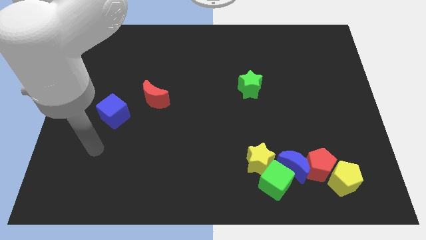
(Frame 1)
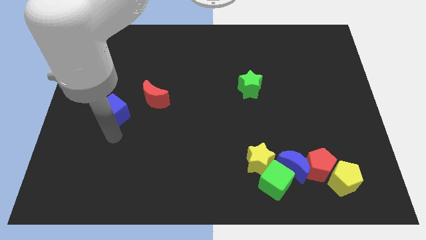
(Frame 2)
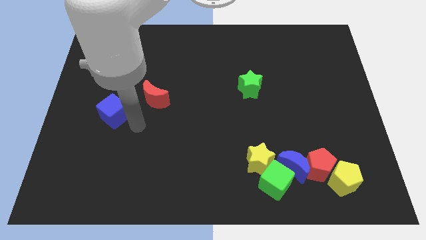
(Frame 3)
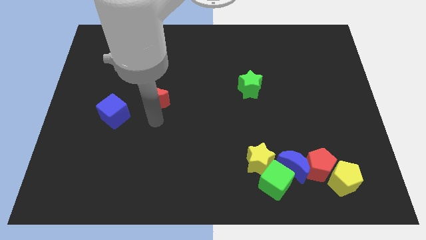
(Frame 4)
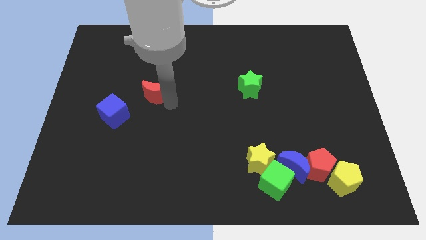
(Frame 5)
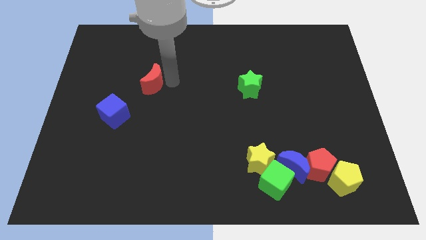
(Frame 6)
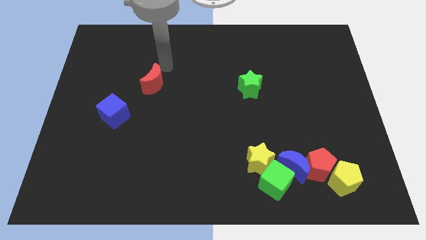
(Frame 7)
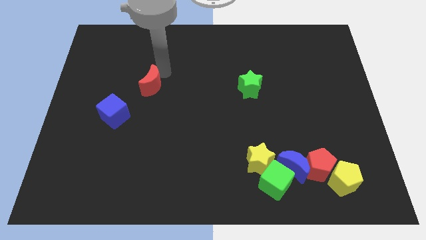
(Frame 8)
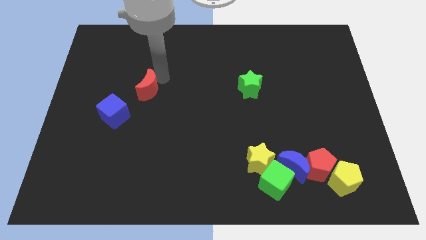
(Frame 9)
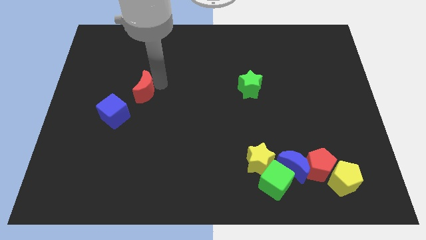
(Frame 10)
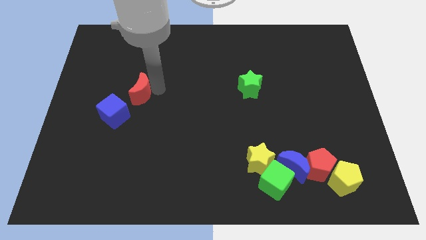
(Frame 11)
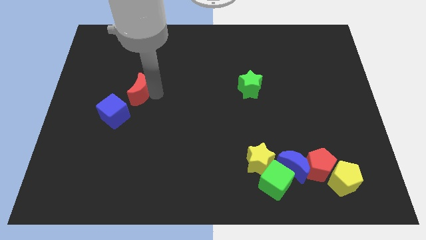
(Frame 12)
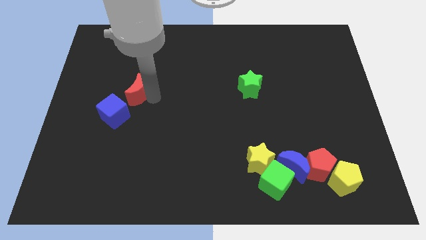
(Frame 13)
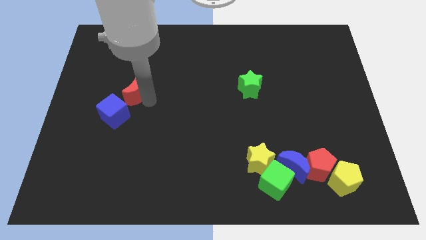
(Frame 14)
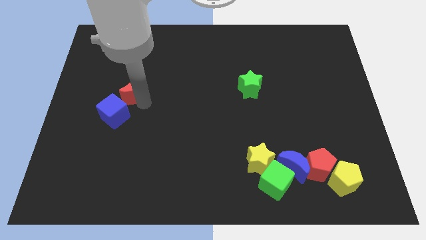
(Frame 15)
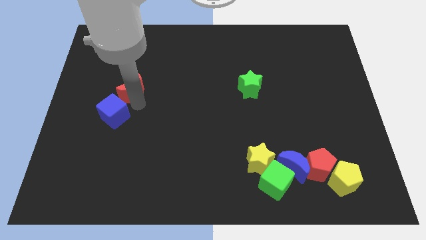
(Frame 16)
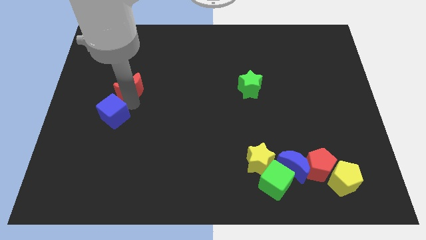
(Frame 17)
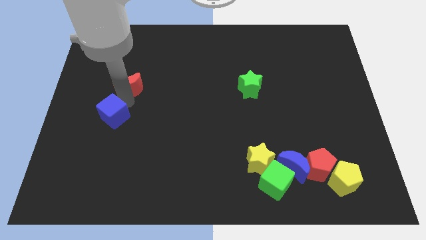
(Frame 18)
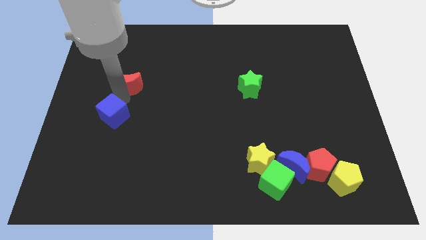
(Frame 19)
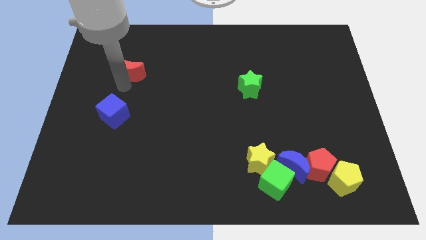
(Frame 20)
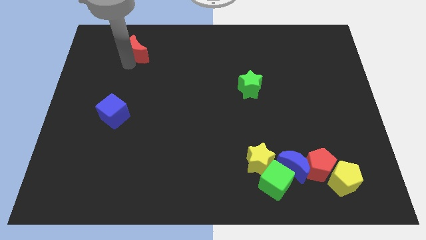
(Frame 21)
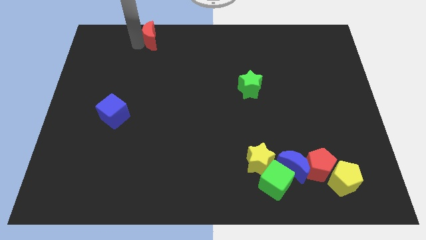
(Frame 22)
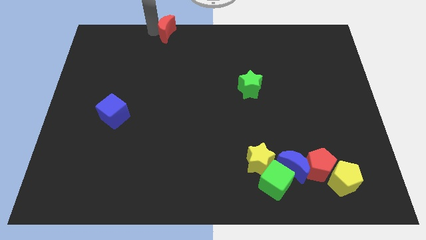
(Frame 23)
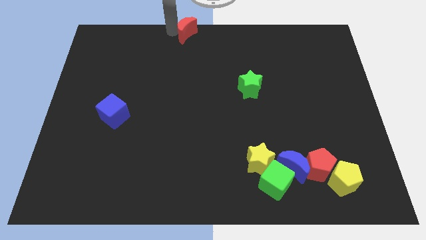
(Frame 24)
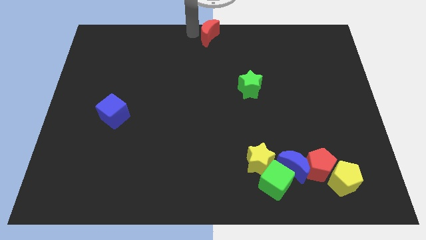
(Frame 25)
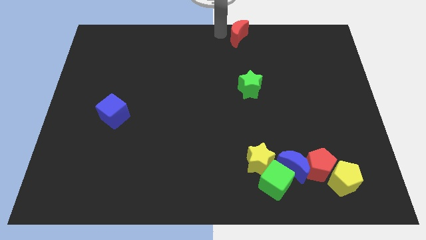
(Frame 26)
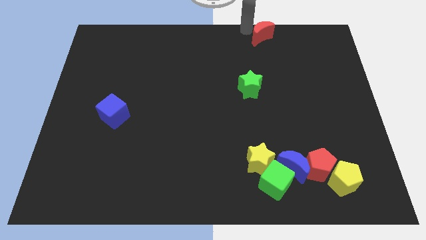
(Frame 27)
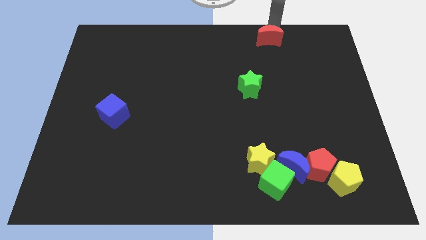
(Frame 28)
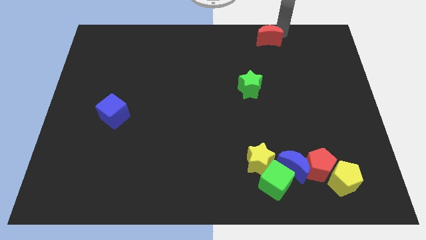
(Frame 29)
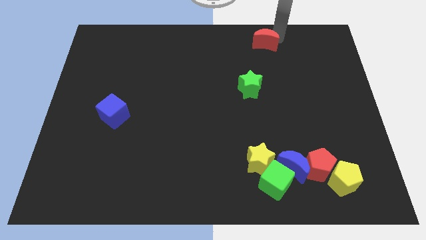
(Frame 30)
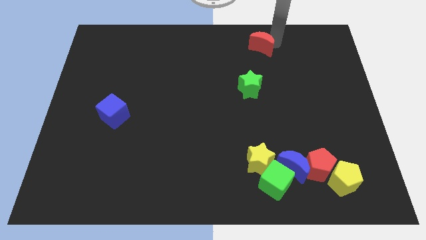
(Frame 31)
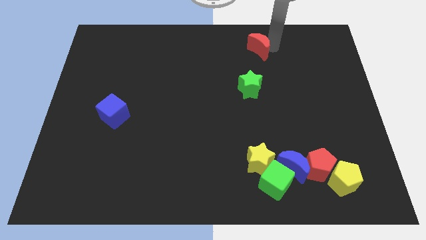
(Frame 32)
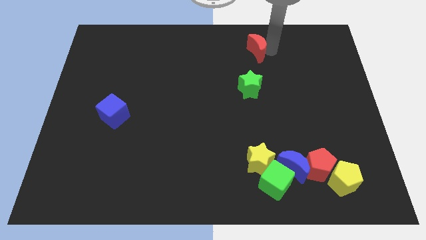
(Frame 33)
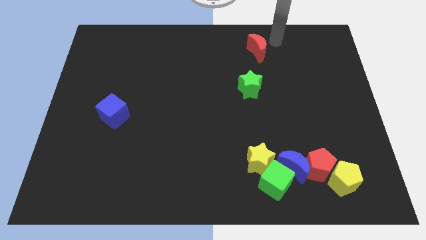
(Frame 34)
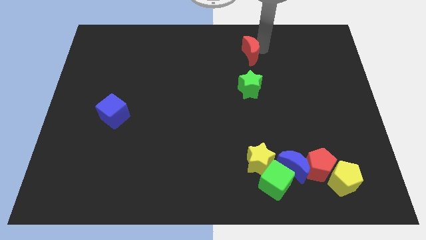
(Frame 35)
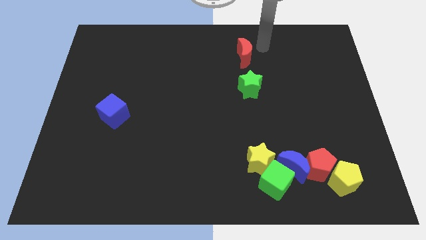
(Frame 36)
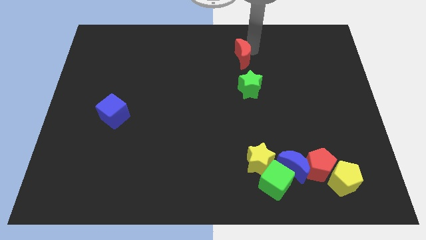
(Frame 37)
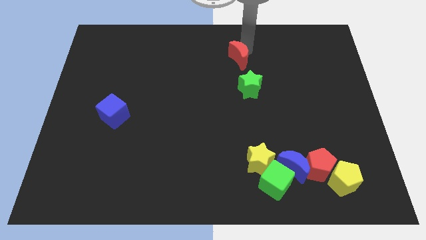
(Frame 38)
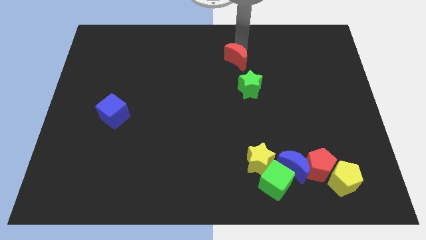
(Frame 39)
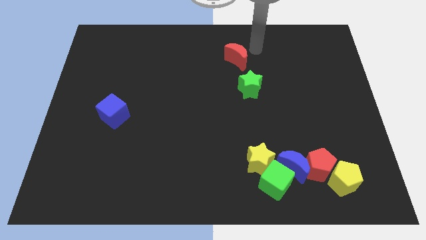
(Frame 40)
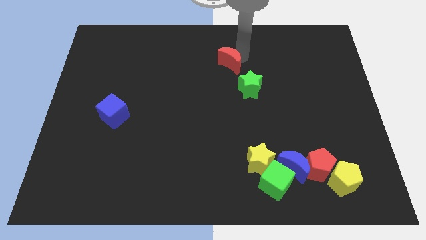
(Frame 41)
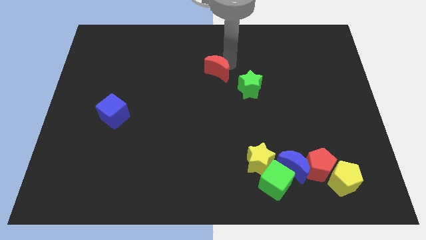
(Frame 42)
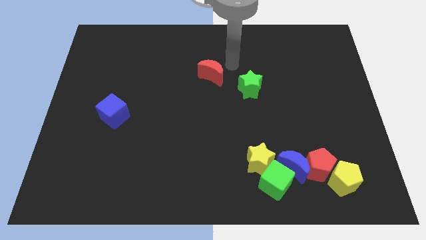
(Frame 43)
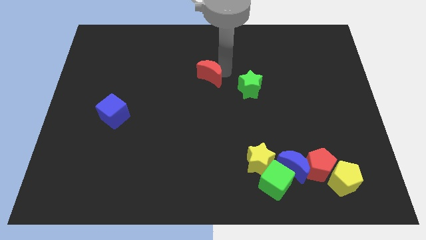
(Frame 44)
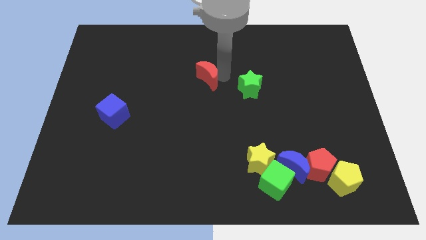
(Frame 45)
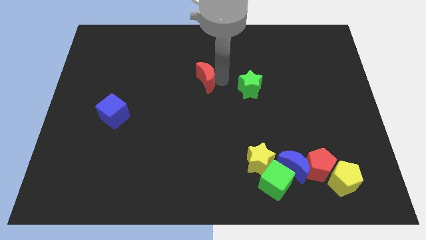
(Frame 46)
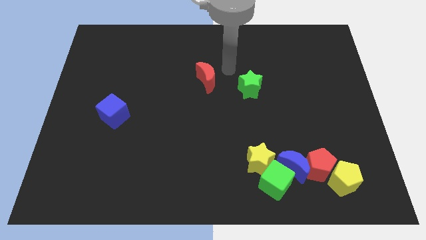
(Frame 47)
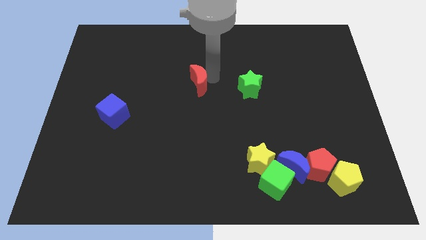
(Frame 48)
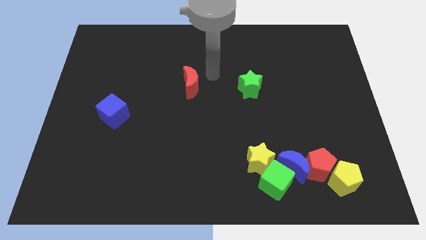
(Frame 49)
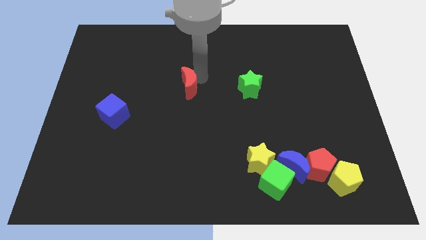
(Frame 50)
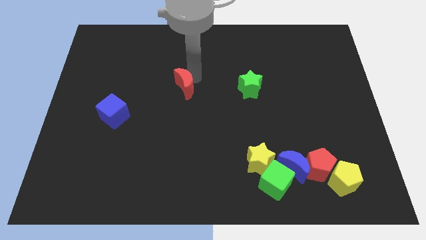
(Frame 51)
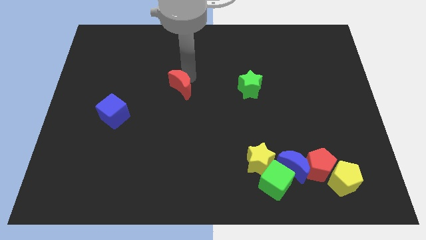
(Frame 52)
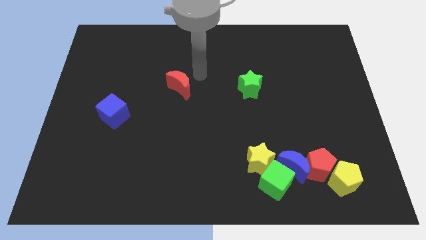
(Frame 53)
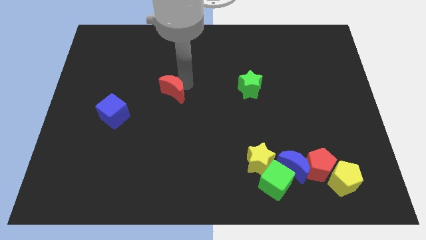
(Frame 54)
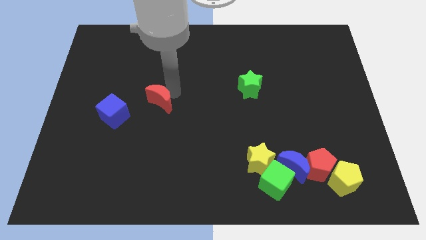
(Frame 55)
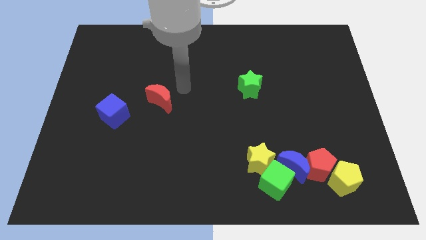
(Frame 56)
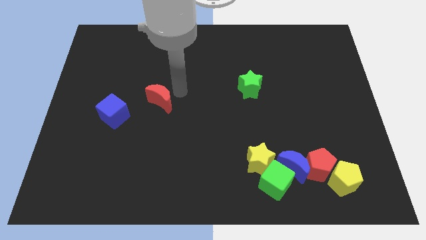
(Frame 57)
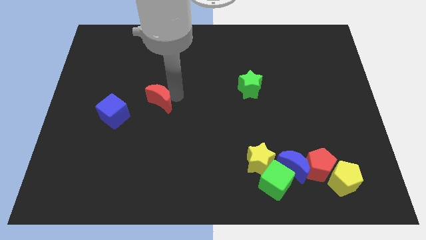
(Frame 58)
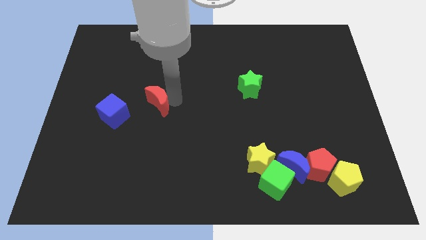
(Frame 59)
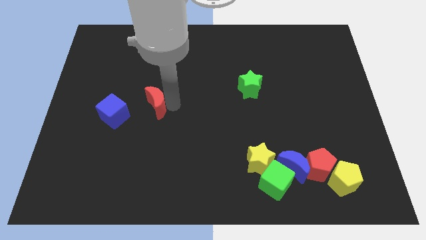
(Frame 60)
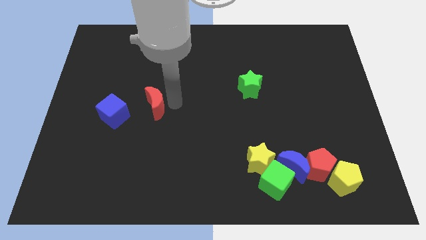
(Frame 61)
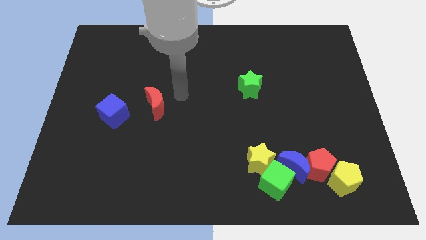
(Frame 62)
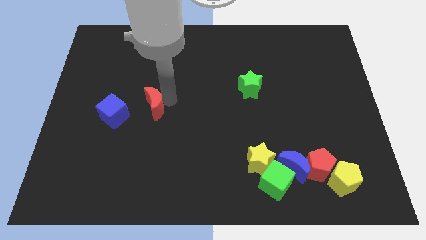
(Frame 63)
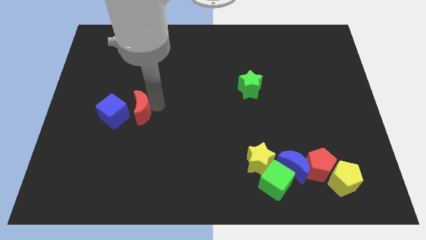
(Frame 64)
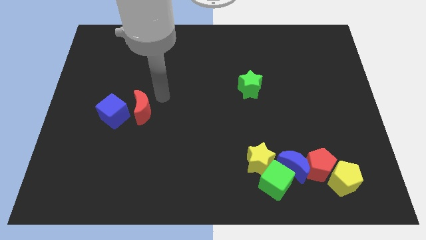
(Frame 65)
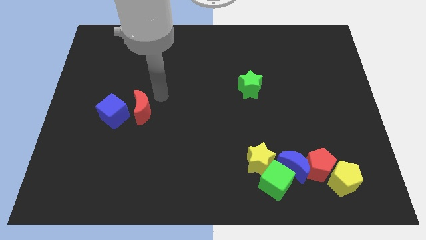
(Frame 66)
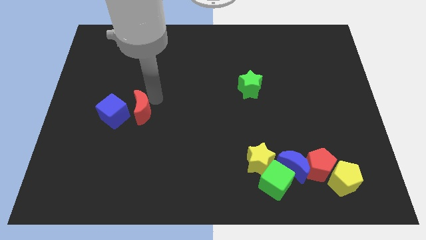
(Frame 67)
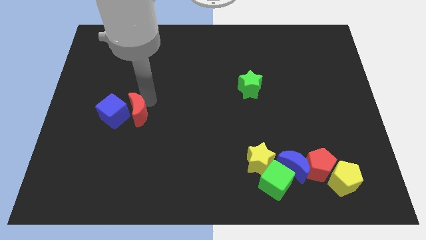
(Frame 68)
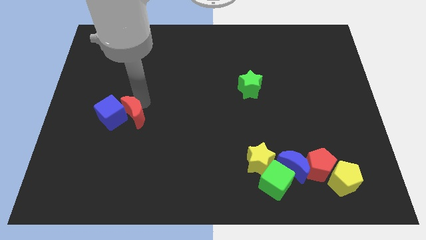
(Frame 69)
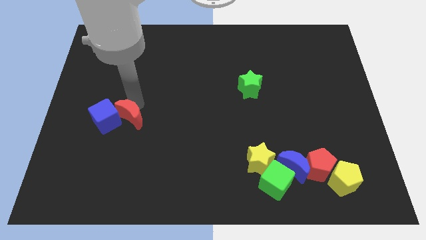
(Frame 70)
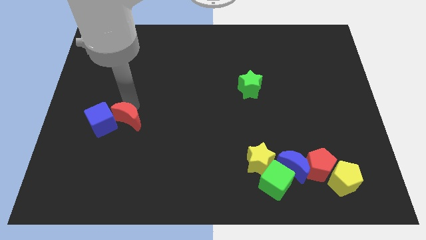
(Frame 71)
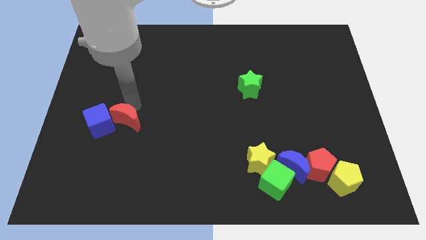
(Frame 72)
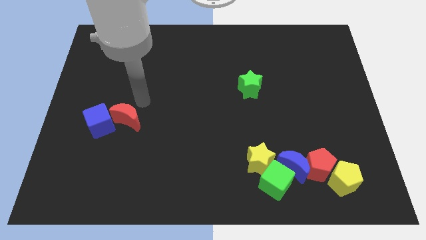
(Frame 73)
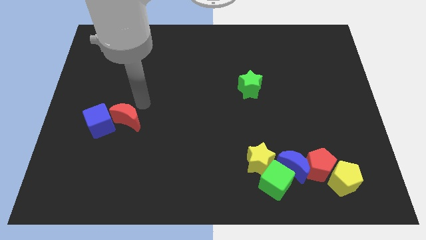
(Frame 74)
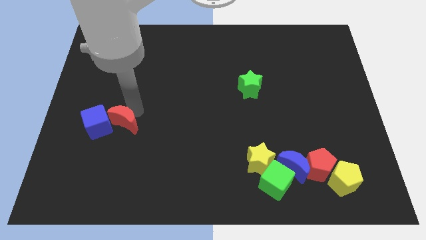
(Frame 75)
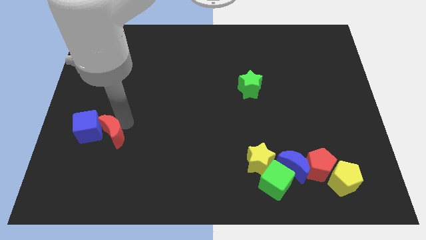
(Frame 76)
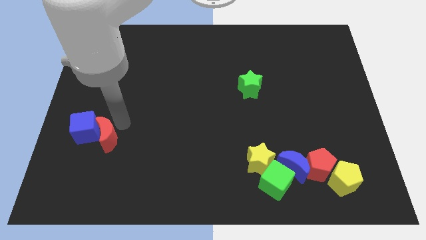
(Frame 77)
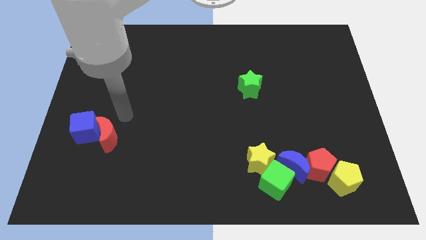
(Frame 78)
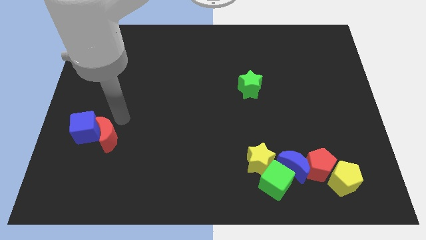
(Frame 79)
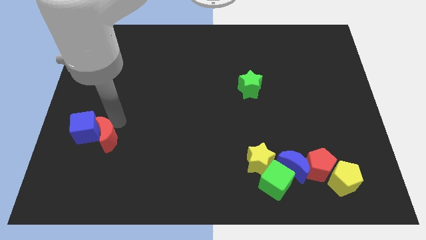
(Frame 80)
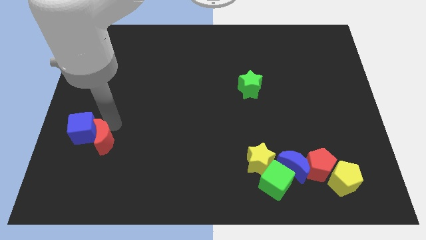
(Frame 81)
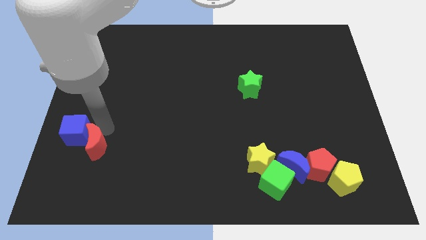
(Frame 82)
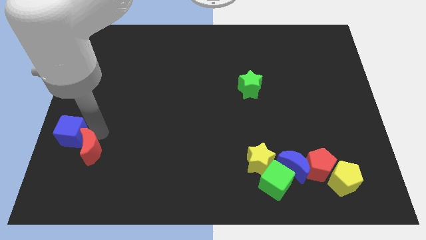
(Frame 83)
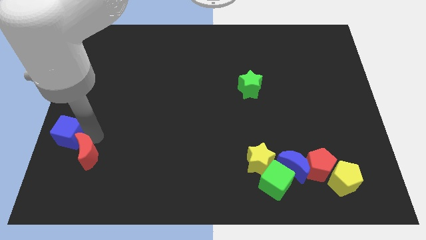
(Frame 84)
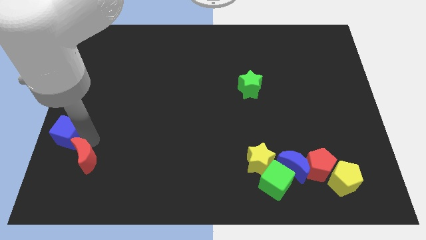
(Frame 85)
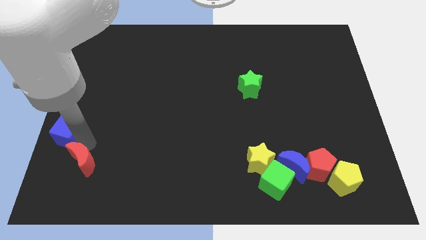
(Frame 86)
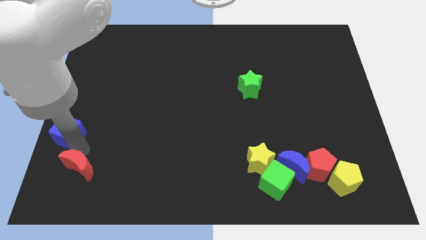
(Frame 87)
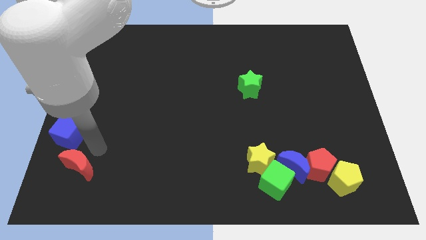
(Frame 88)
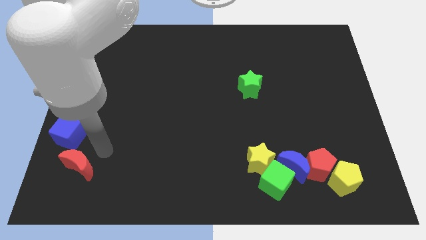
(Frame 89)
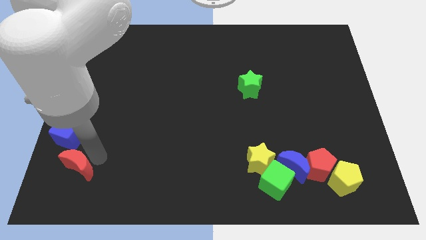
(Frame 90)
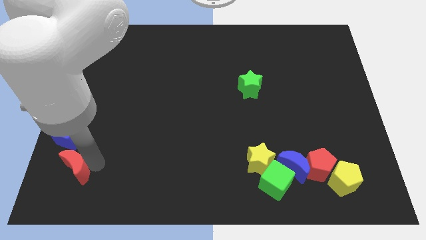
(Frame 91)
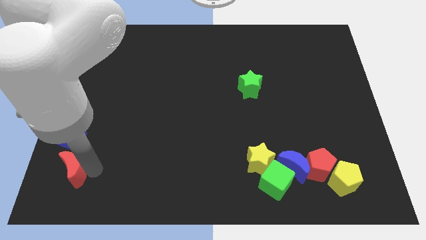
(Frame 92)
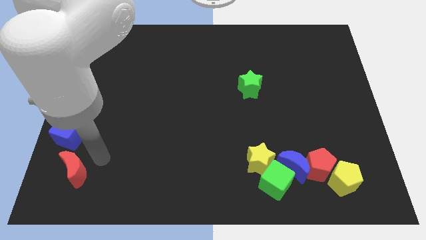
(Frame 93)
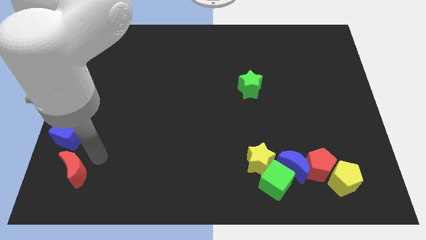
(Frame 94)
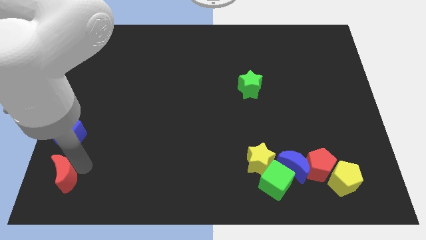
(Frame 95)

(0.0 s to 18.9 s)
push the red moon to the lower left corner
